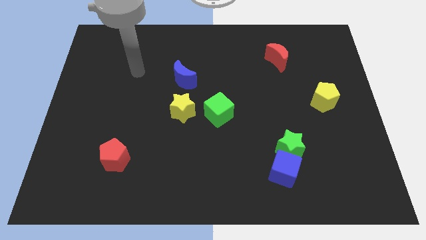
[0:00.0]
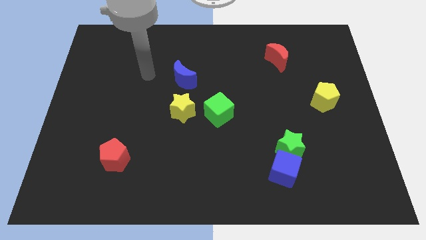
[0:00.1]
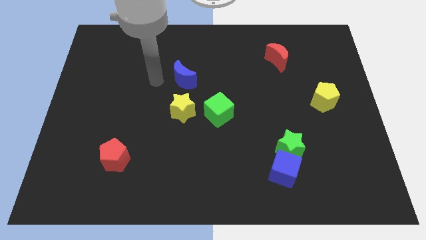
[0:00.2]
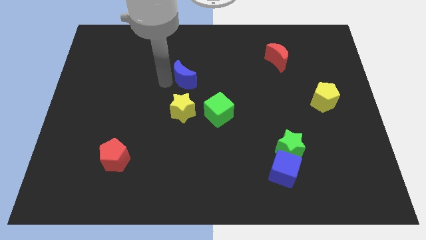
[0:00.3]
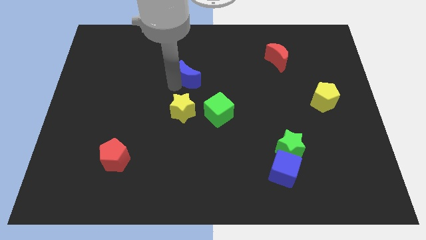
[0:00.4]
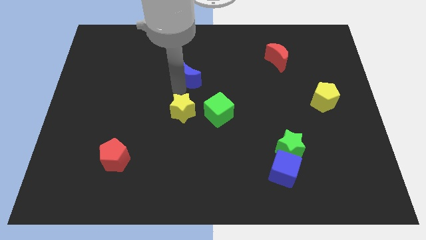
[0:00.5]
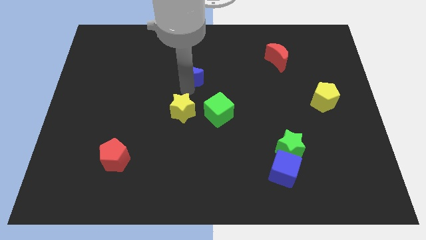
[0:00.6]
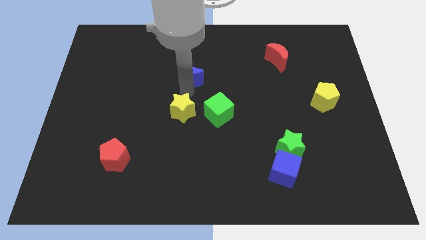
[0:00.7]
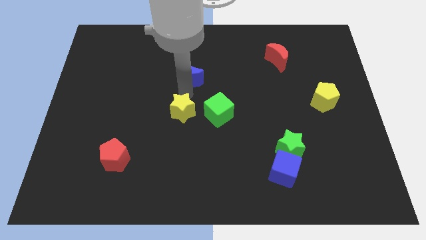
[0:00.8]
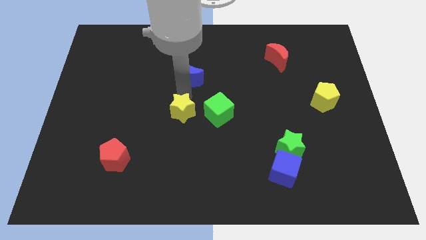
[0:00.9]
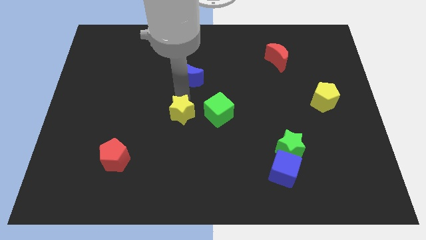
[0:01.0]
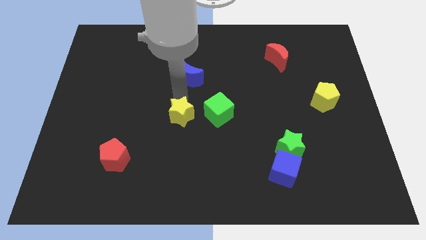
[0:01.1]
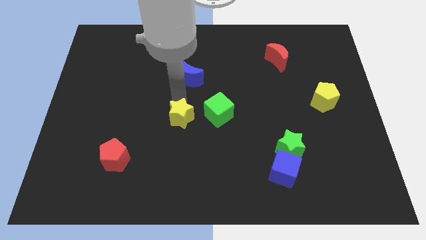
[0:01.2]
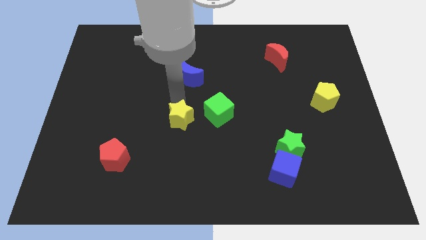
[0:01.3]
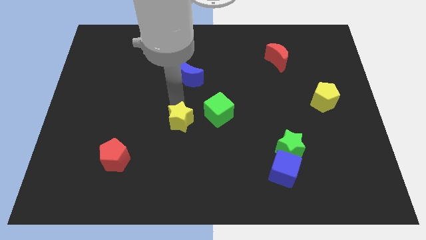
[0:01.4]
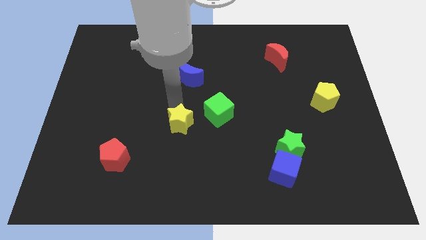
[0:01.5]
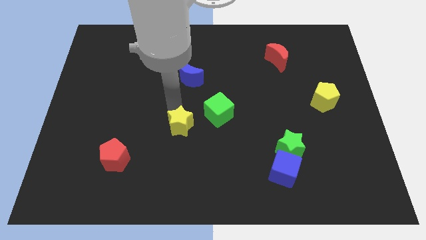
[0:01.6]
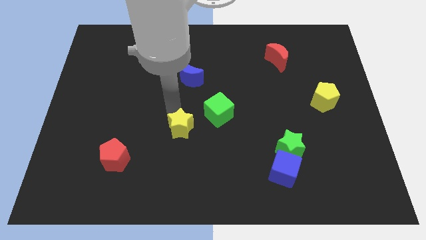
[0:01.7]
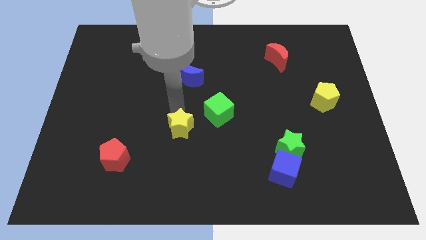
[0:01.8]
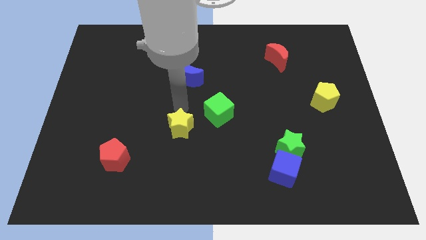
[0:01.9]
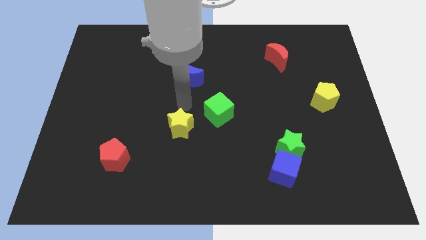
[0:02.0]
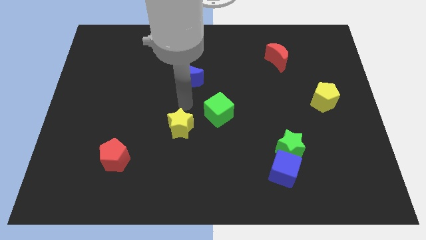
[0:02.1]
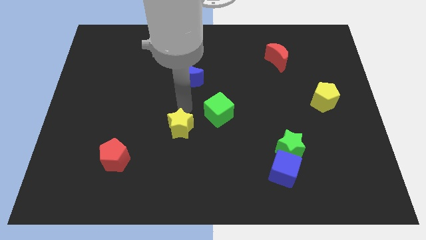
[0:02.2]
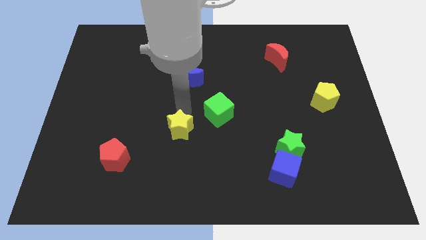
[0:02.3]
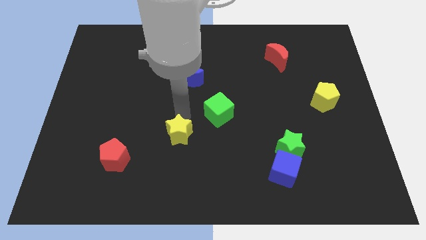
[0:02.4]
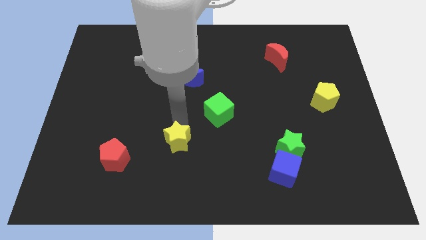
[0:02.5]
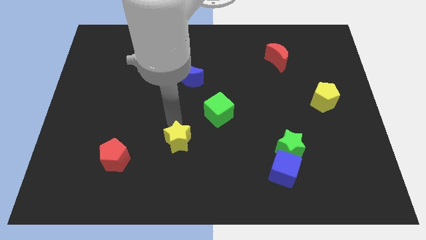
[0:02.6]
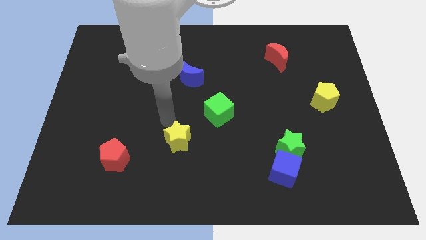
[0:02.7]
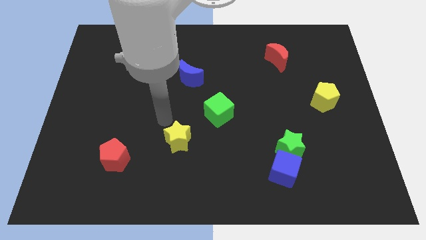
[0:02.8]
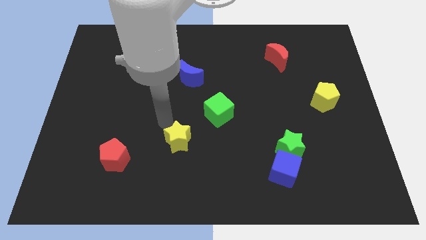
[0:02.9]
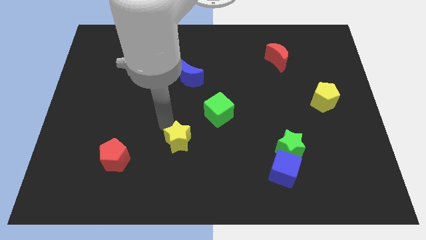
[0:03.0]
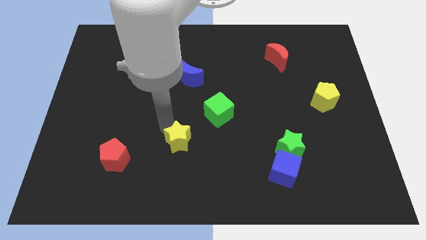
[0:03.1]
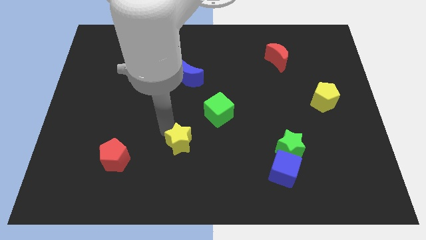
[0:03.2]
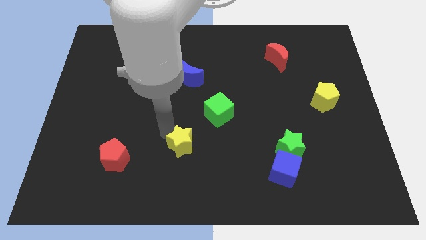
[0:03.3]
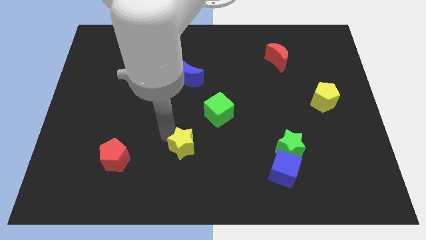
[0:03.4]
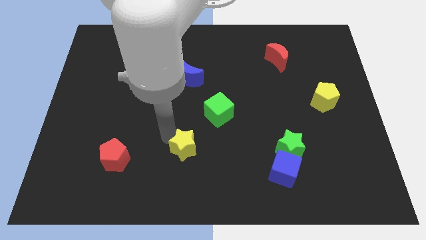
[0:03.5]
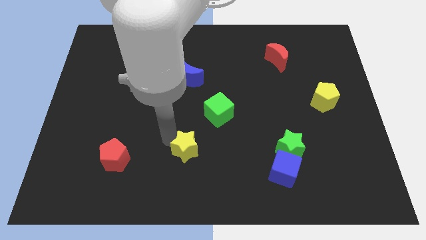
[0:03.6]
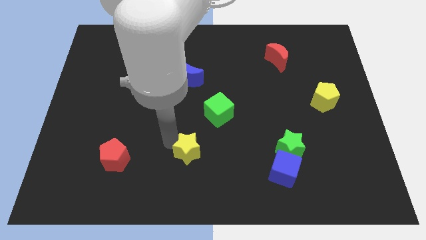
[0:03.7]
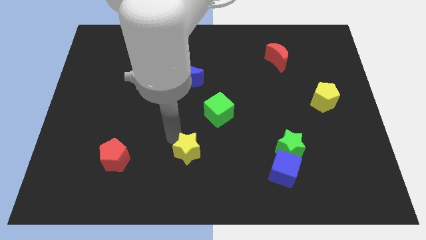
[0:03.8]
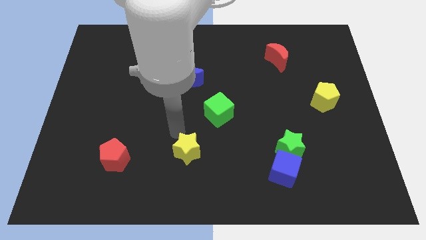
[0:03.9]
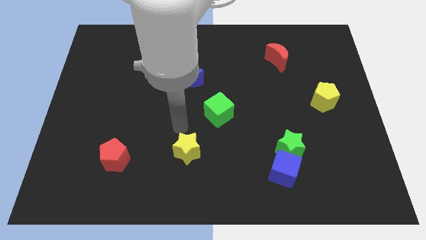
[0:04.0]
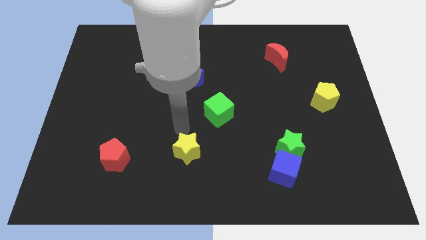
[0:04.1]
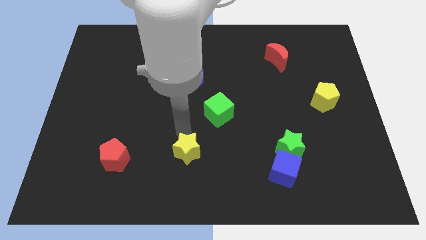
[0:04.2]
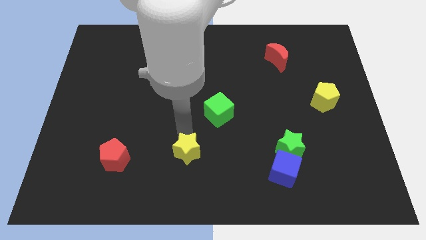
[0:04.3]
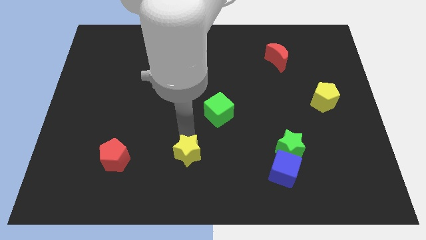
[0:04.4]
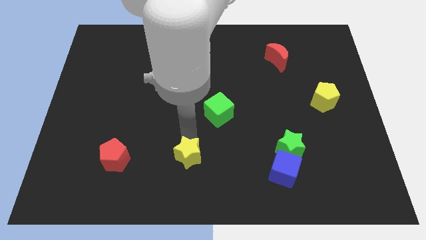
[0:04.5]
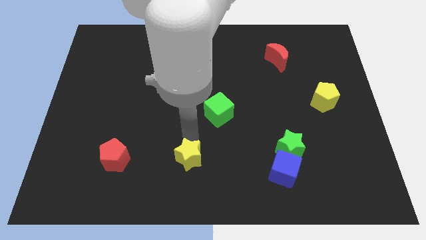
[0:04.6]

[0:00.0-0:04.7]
put the yellow star to the bottom

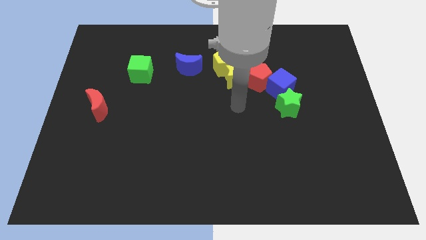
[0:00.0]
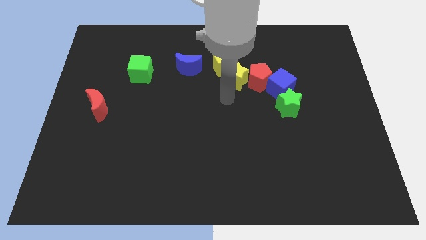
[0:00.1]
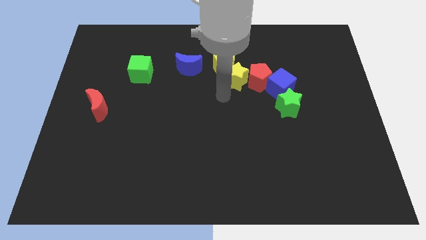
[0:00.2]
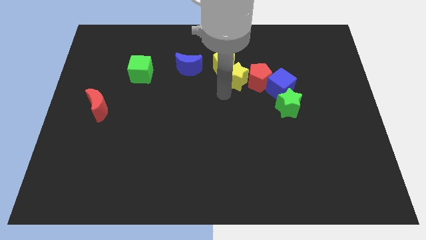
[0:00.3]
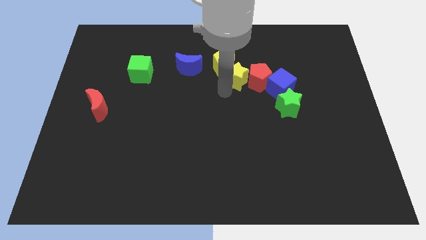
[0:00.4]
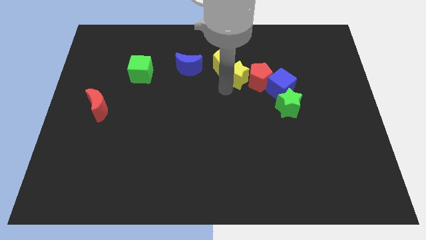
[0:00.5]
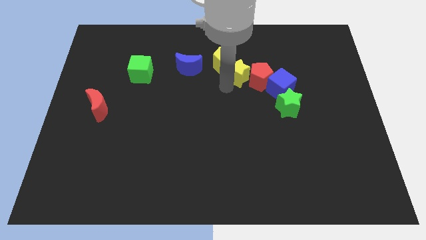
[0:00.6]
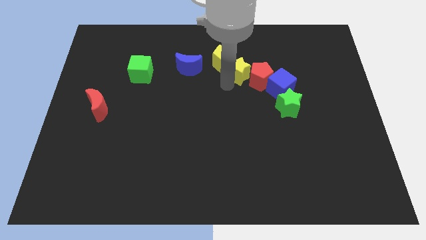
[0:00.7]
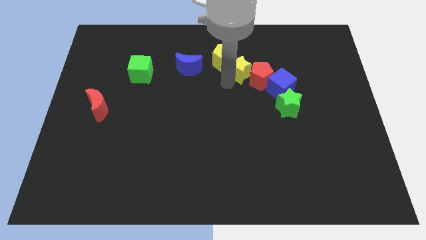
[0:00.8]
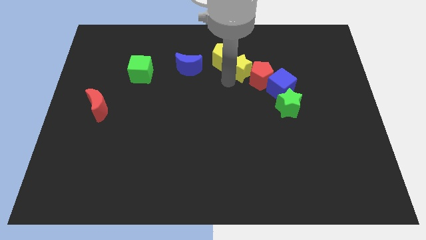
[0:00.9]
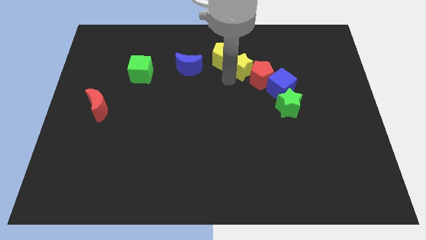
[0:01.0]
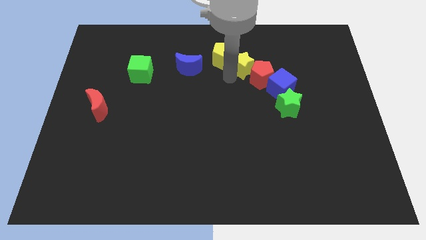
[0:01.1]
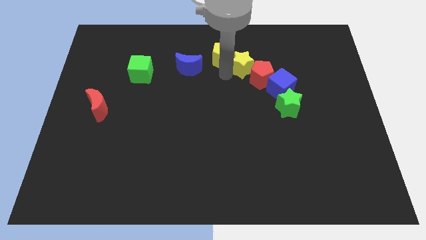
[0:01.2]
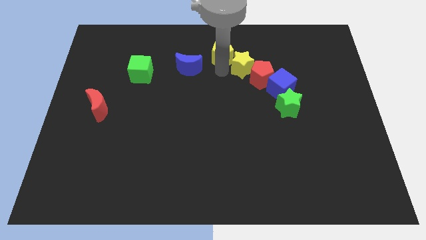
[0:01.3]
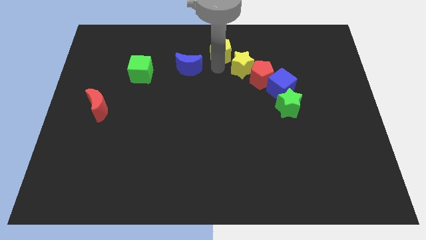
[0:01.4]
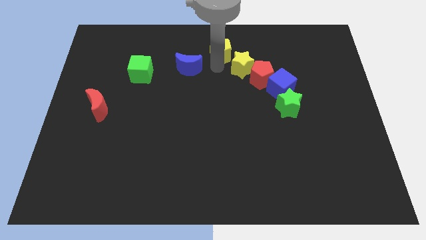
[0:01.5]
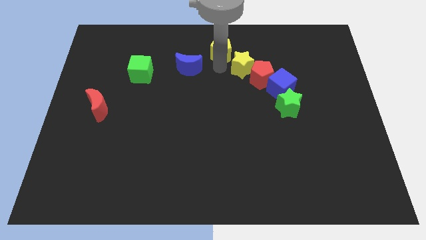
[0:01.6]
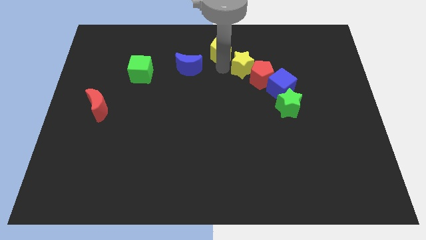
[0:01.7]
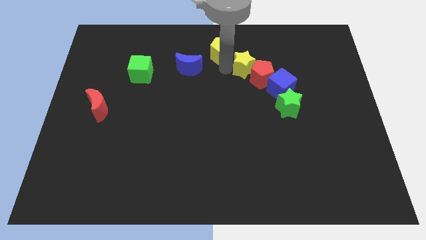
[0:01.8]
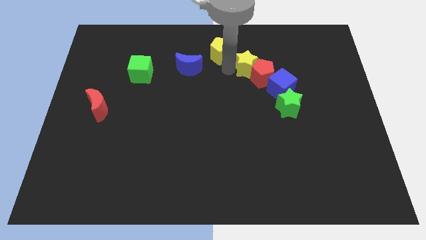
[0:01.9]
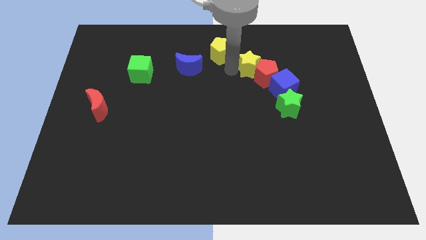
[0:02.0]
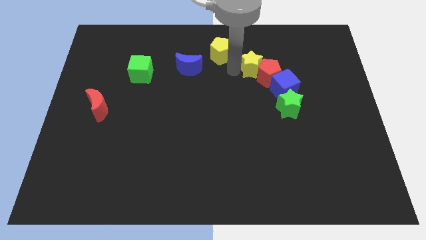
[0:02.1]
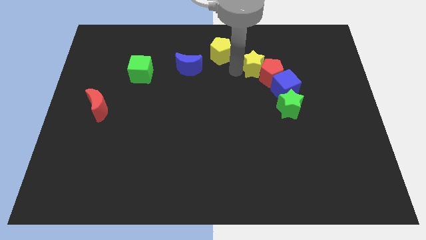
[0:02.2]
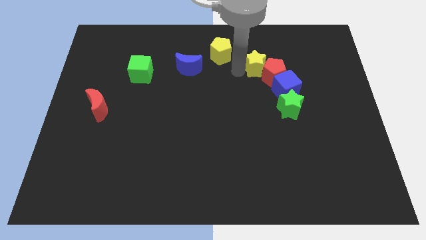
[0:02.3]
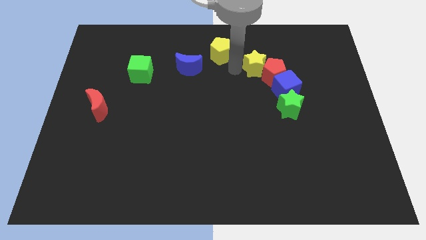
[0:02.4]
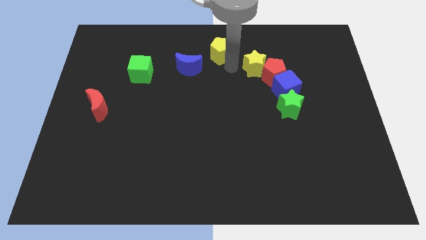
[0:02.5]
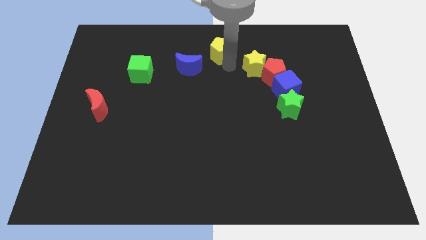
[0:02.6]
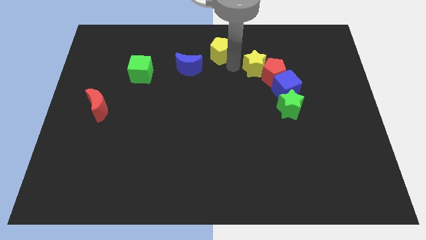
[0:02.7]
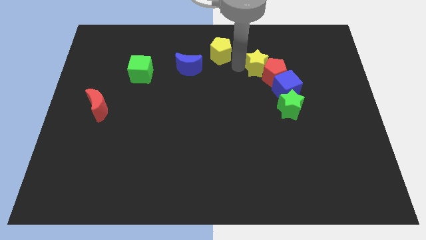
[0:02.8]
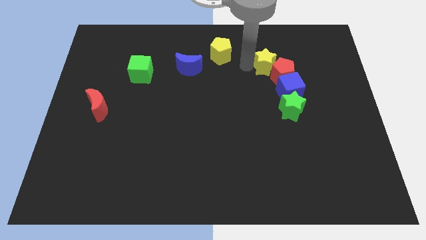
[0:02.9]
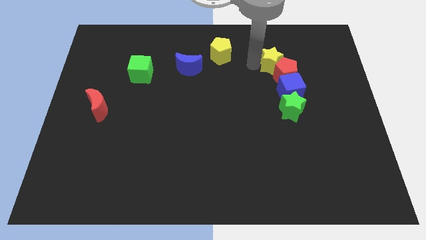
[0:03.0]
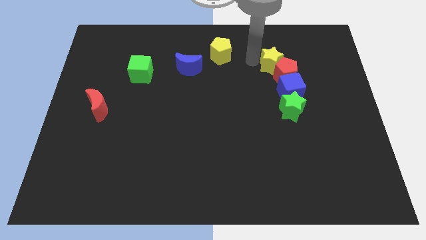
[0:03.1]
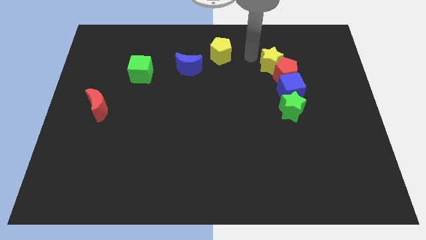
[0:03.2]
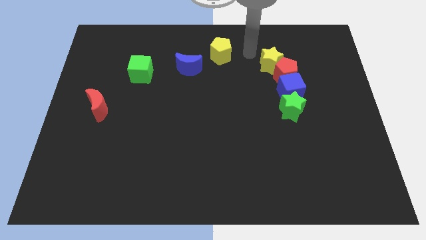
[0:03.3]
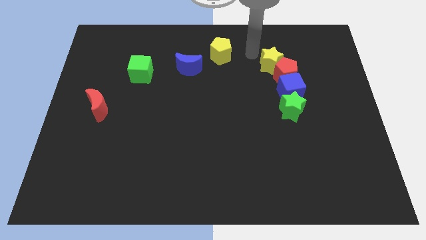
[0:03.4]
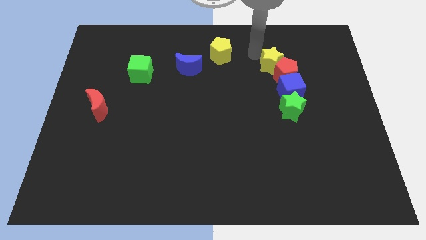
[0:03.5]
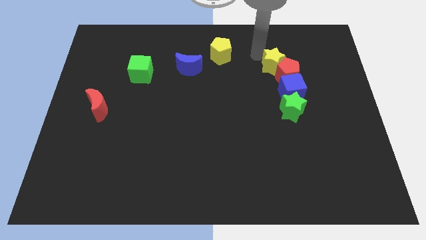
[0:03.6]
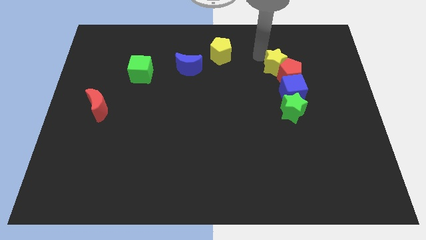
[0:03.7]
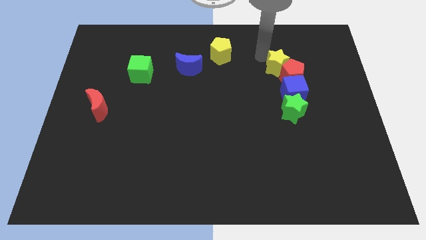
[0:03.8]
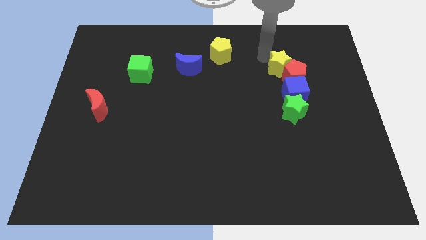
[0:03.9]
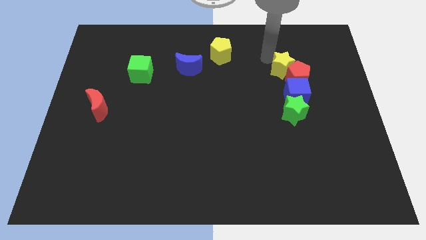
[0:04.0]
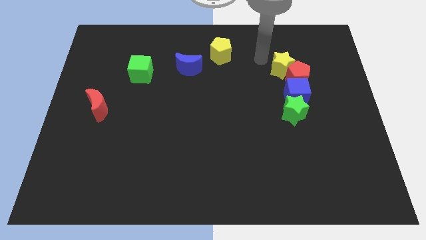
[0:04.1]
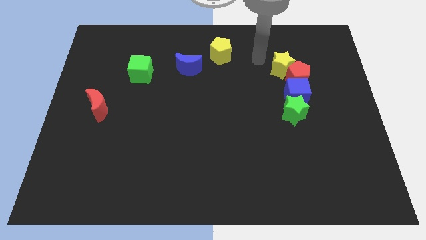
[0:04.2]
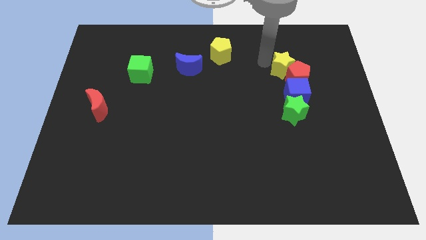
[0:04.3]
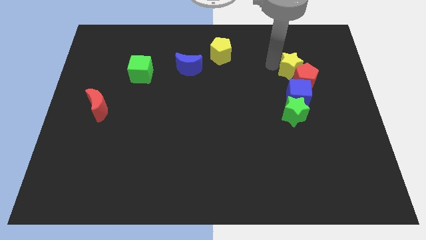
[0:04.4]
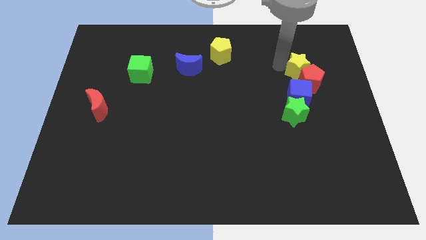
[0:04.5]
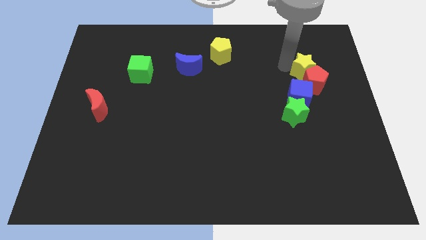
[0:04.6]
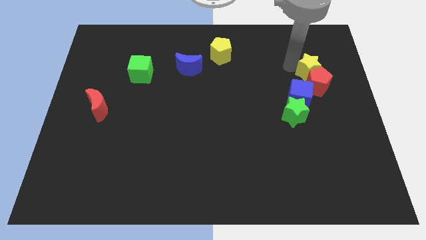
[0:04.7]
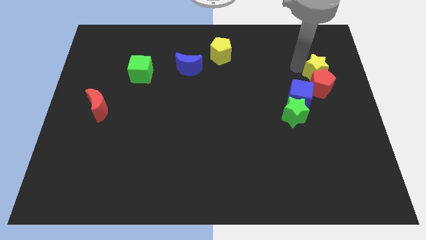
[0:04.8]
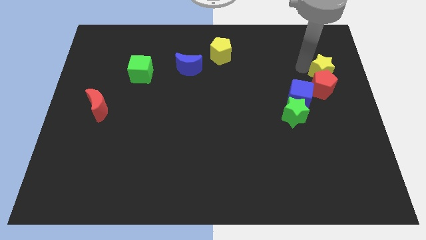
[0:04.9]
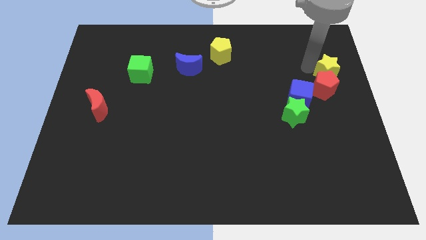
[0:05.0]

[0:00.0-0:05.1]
push the yellow star to the right side
